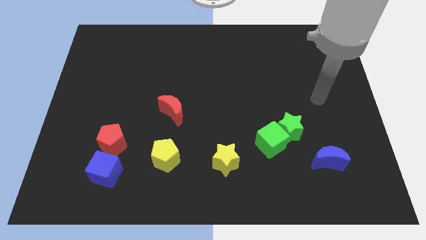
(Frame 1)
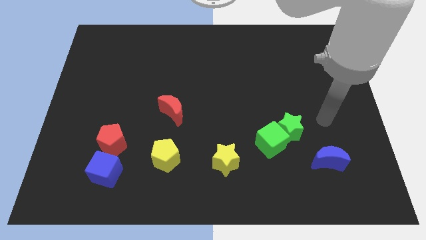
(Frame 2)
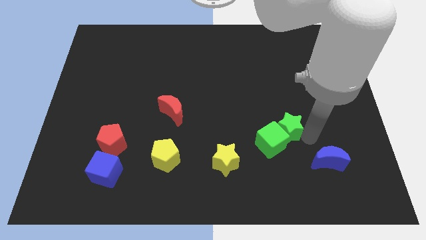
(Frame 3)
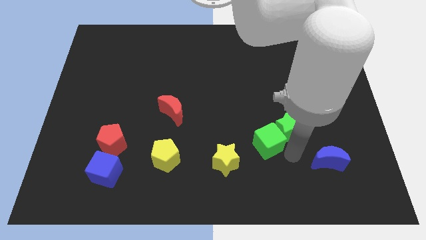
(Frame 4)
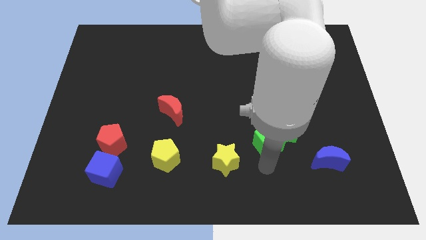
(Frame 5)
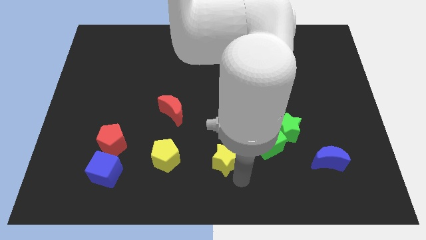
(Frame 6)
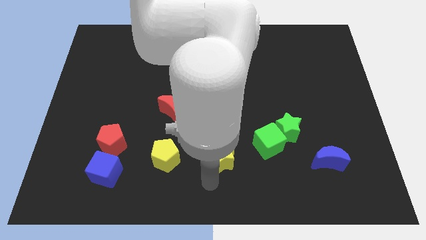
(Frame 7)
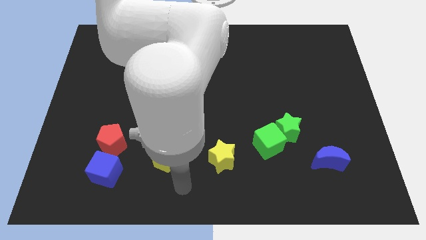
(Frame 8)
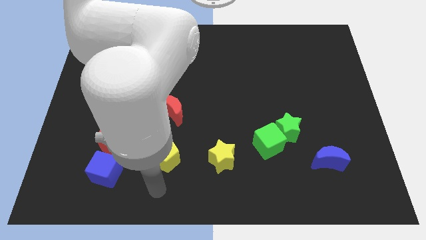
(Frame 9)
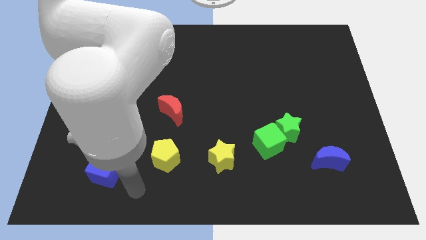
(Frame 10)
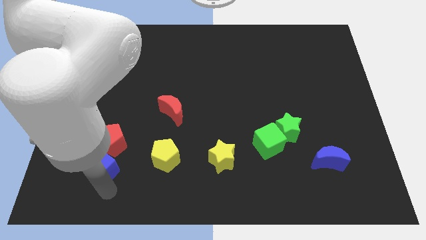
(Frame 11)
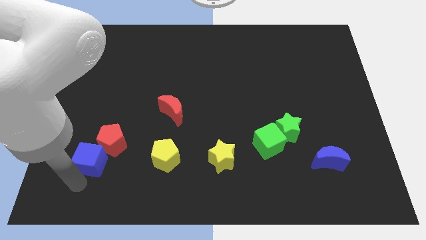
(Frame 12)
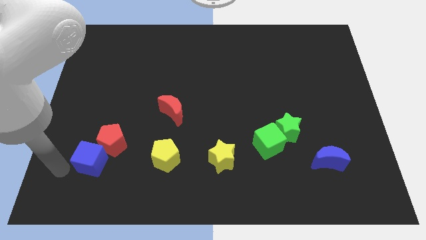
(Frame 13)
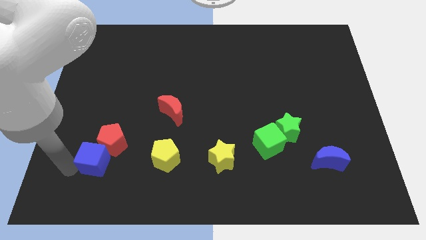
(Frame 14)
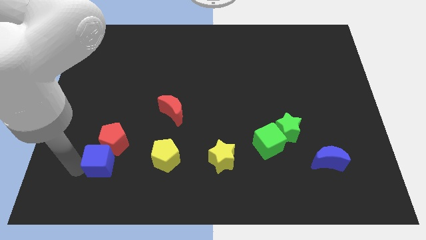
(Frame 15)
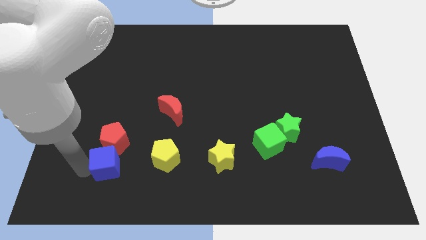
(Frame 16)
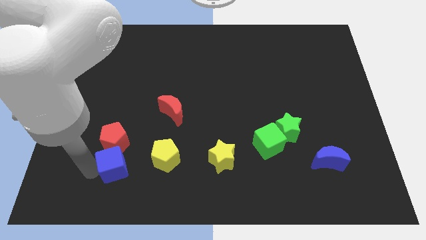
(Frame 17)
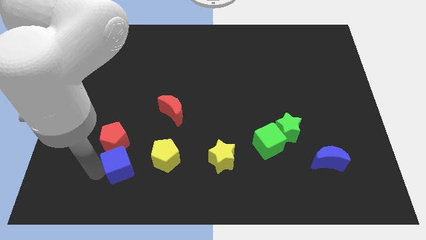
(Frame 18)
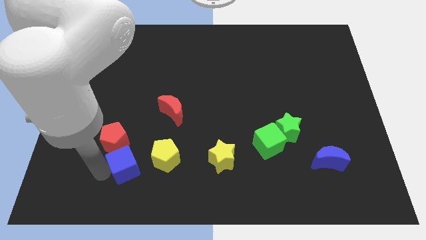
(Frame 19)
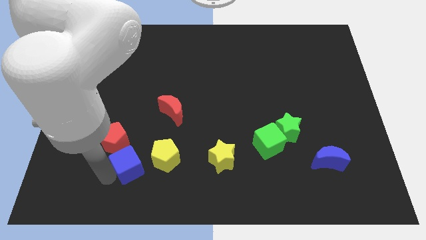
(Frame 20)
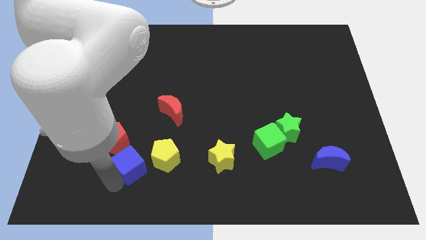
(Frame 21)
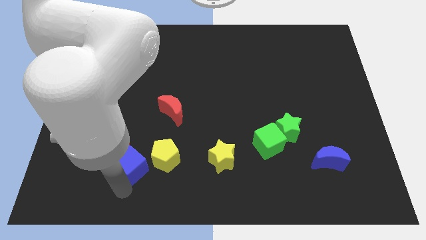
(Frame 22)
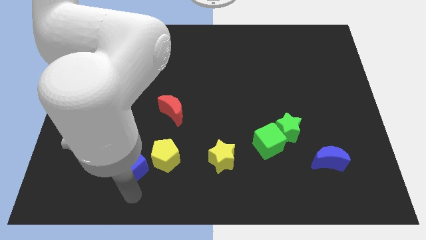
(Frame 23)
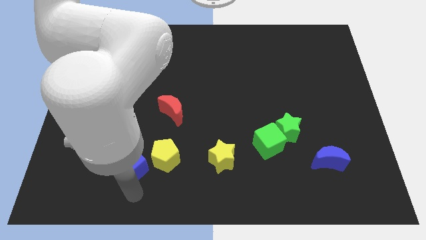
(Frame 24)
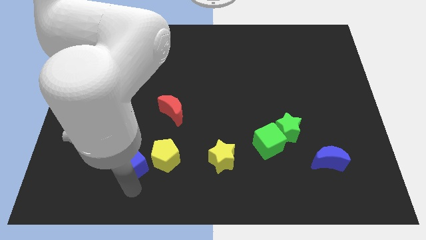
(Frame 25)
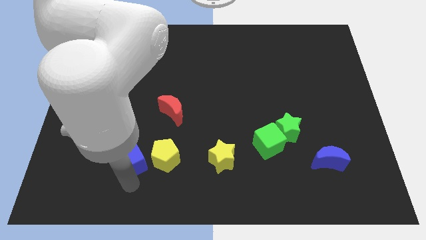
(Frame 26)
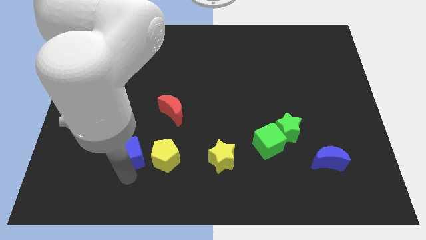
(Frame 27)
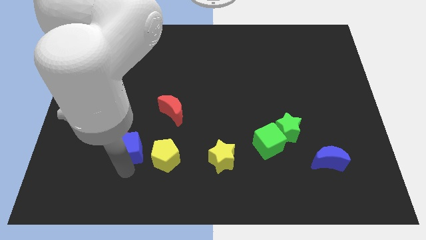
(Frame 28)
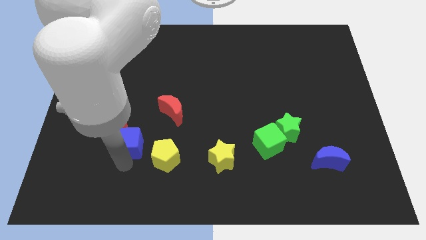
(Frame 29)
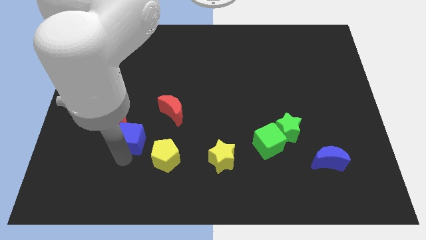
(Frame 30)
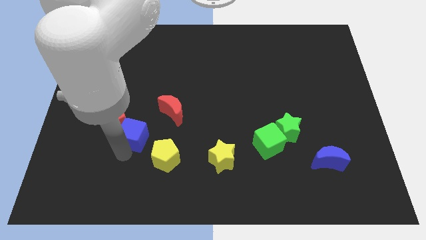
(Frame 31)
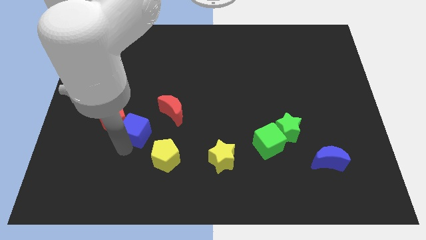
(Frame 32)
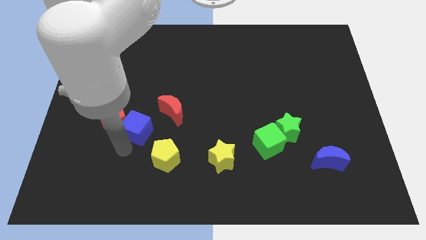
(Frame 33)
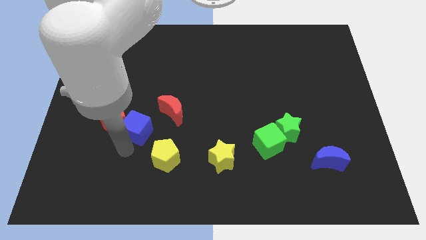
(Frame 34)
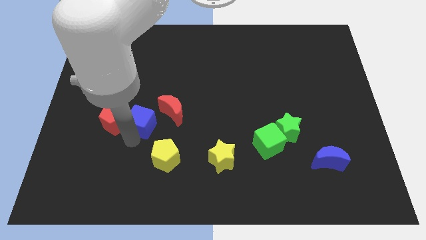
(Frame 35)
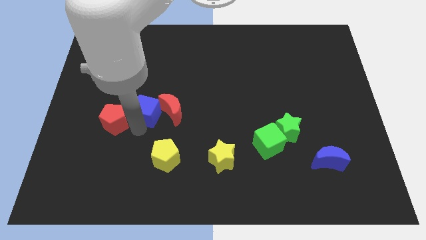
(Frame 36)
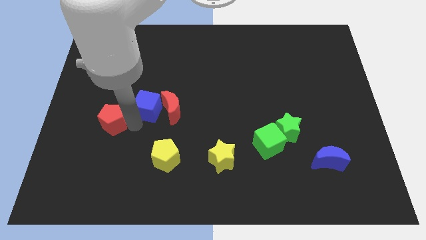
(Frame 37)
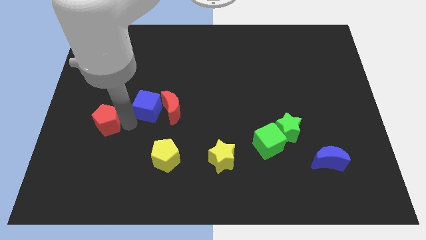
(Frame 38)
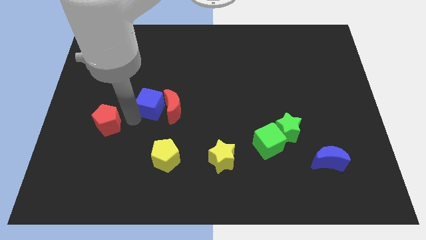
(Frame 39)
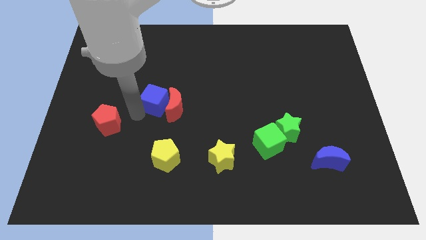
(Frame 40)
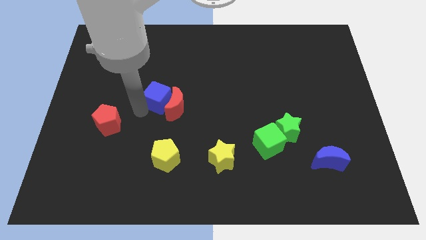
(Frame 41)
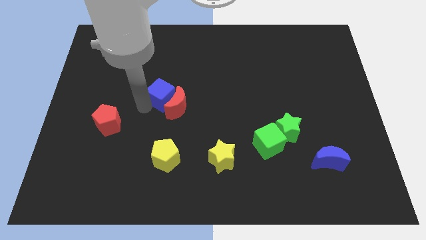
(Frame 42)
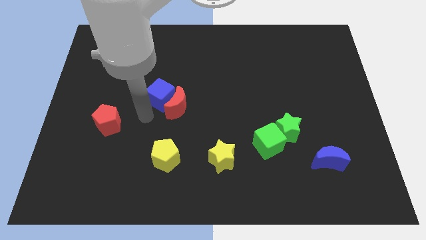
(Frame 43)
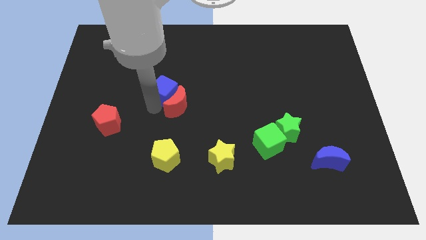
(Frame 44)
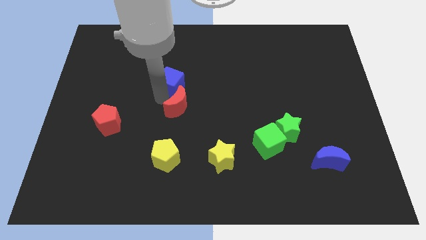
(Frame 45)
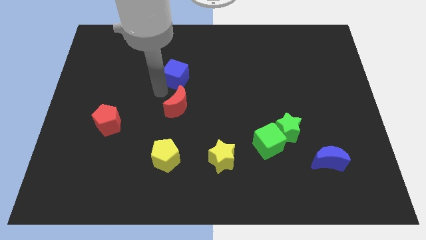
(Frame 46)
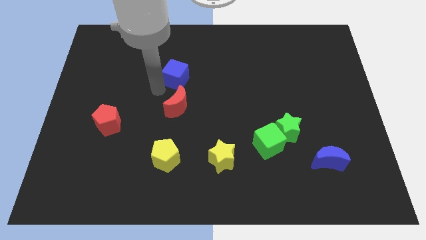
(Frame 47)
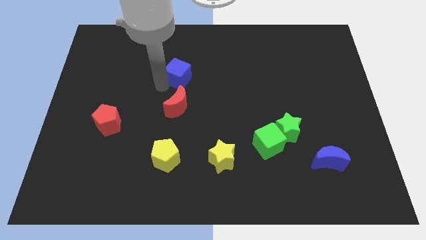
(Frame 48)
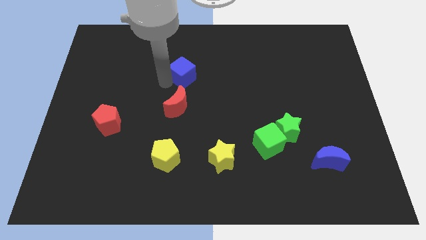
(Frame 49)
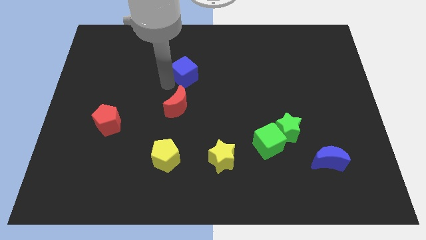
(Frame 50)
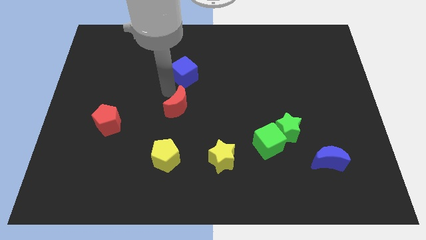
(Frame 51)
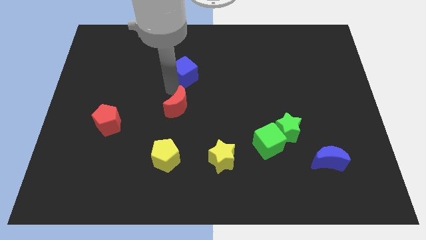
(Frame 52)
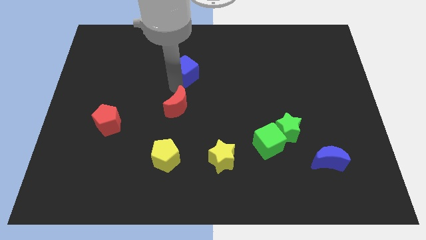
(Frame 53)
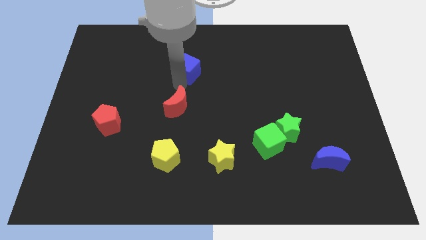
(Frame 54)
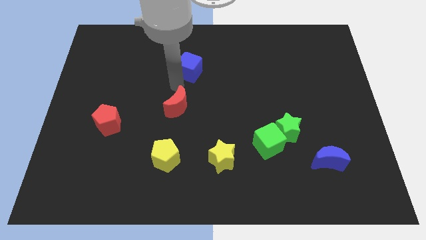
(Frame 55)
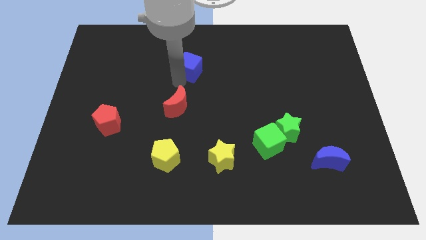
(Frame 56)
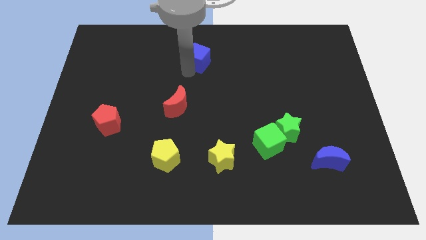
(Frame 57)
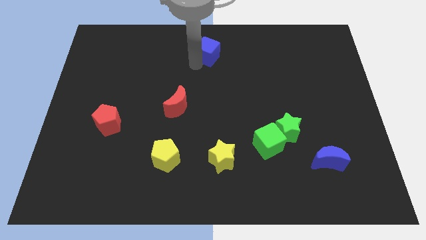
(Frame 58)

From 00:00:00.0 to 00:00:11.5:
put the blue cube to the top side

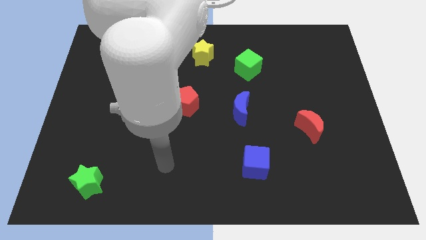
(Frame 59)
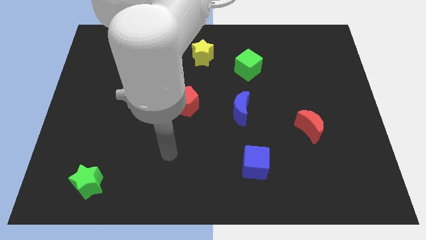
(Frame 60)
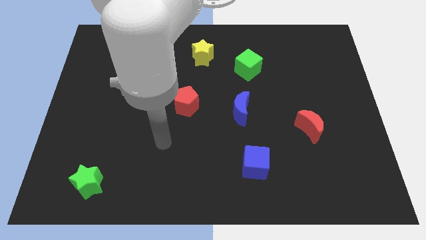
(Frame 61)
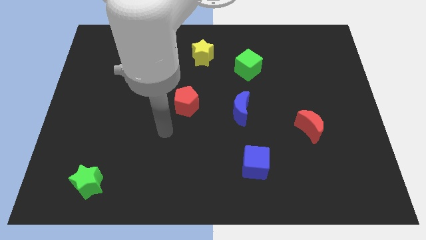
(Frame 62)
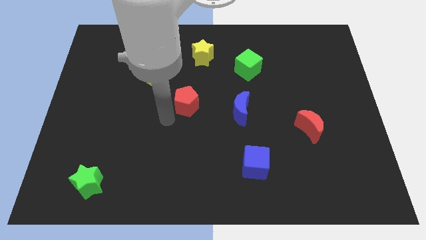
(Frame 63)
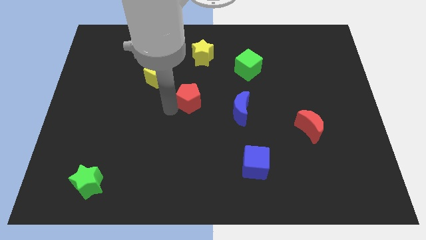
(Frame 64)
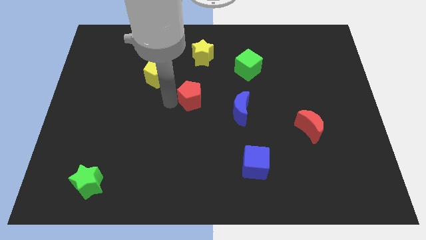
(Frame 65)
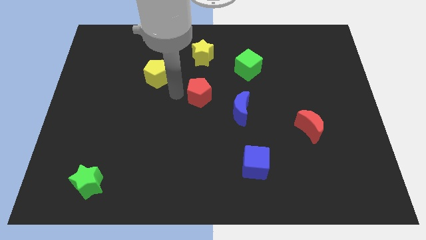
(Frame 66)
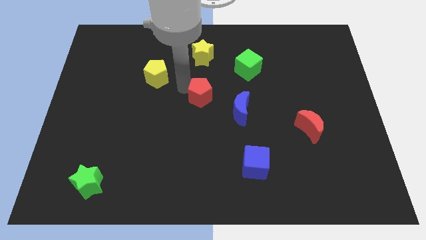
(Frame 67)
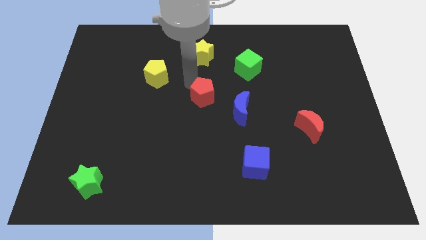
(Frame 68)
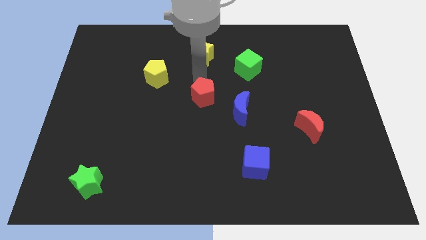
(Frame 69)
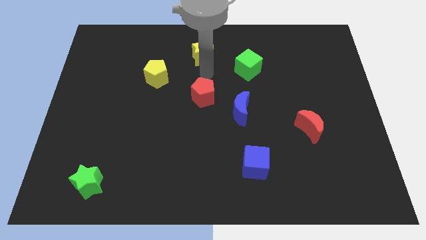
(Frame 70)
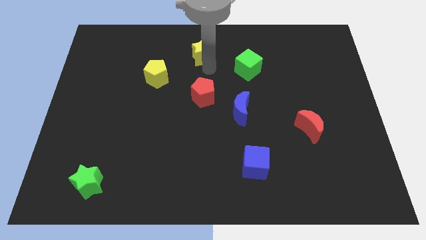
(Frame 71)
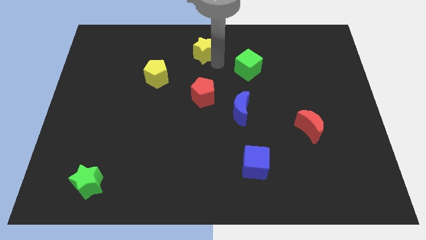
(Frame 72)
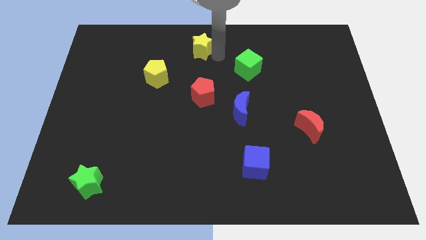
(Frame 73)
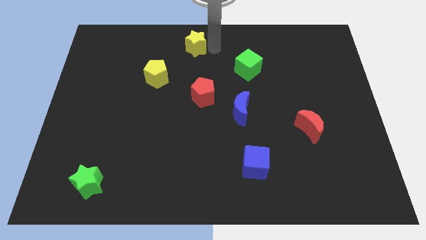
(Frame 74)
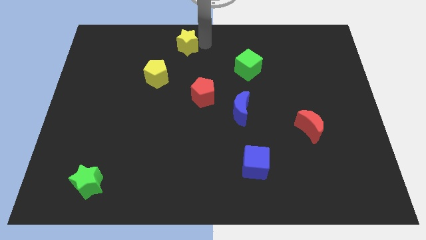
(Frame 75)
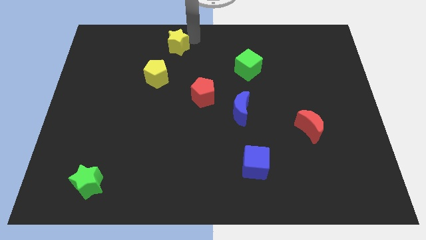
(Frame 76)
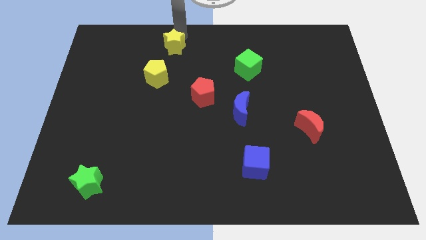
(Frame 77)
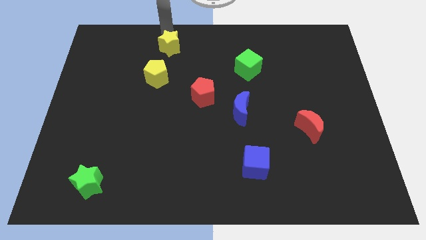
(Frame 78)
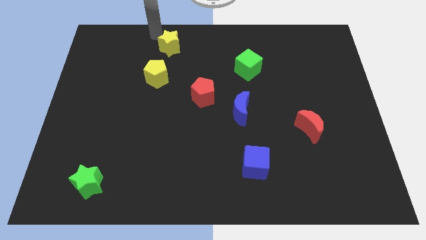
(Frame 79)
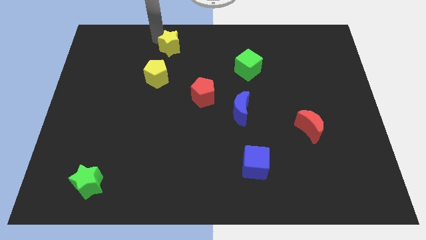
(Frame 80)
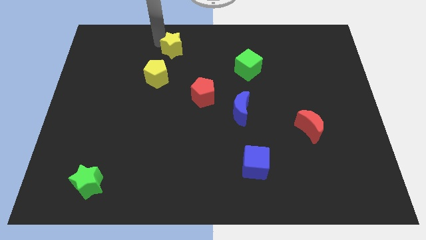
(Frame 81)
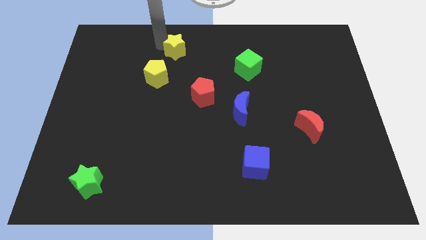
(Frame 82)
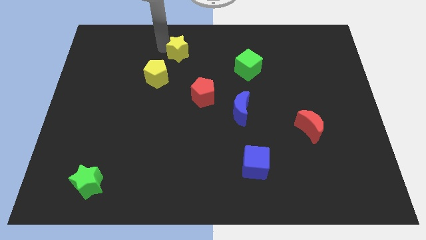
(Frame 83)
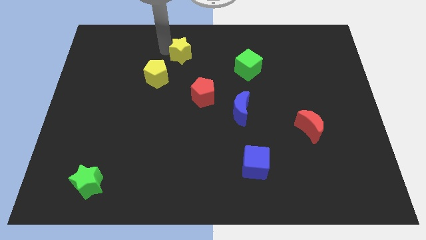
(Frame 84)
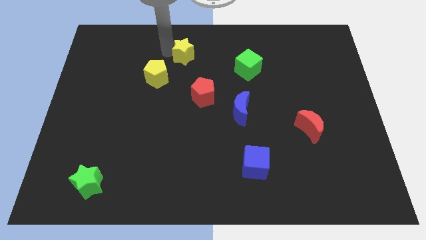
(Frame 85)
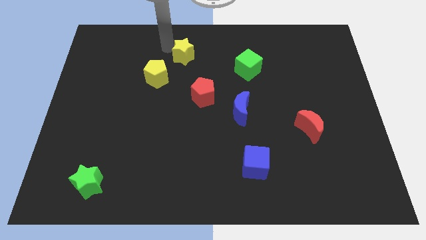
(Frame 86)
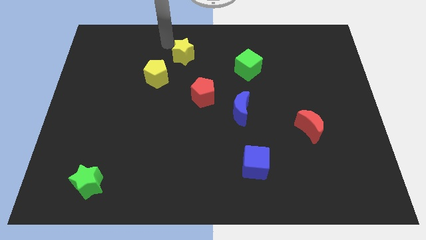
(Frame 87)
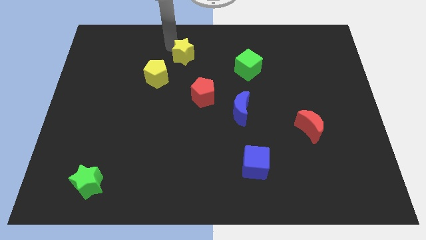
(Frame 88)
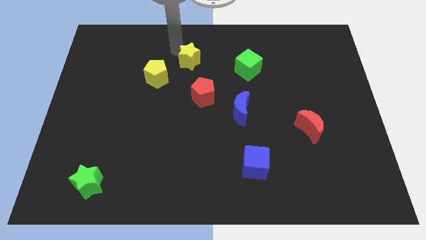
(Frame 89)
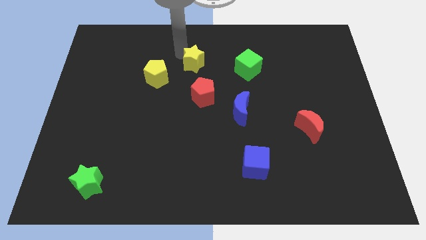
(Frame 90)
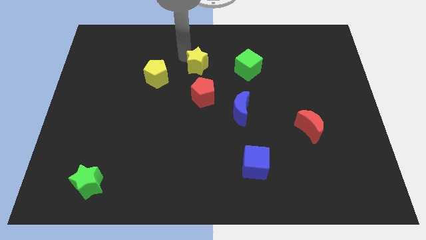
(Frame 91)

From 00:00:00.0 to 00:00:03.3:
put the yellow star to the center
